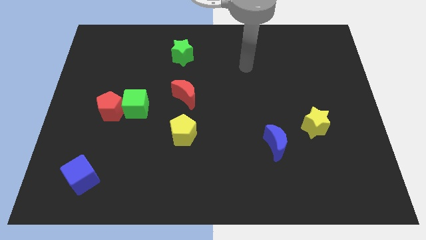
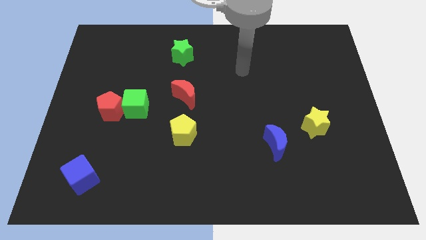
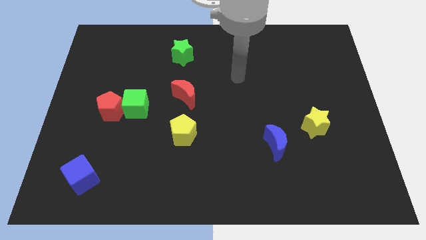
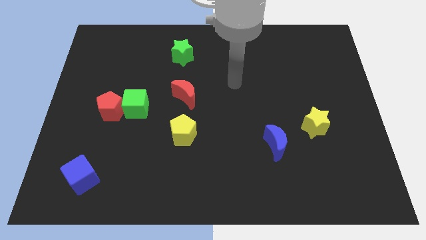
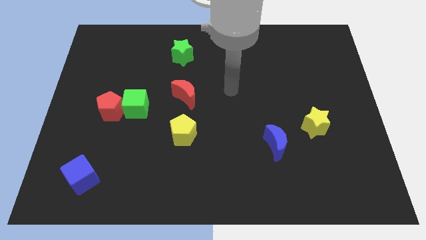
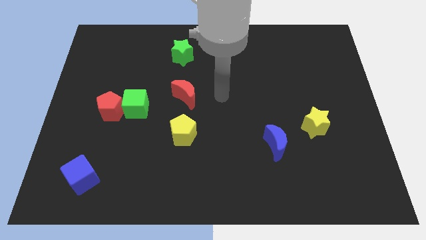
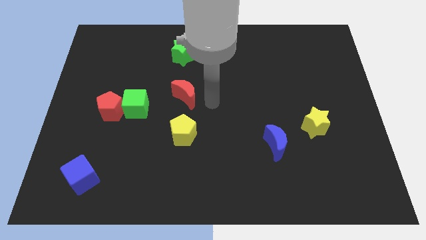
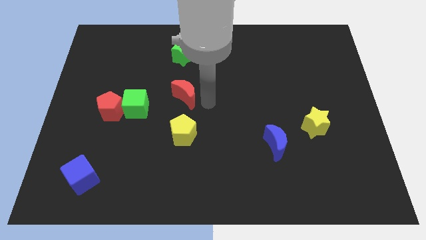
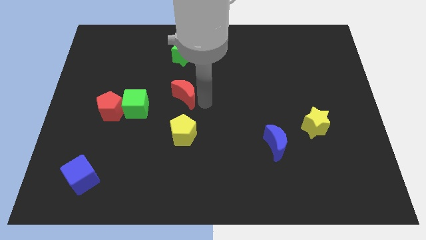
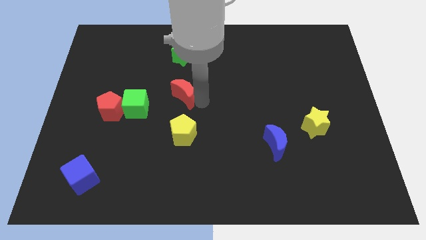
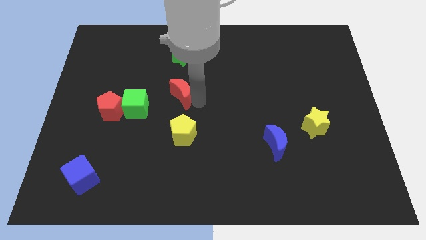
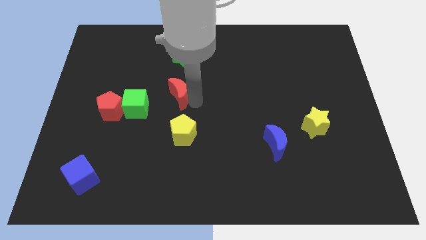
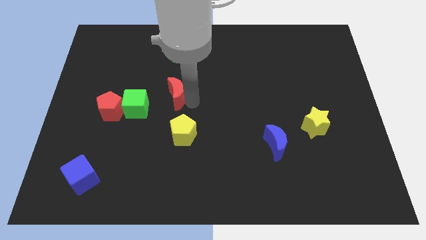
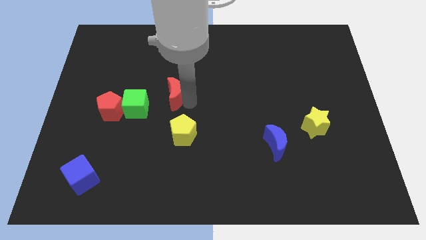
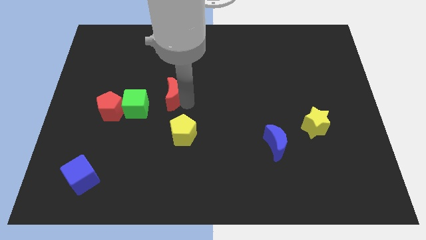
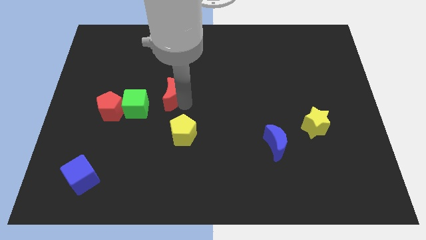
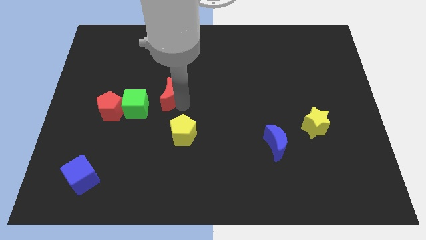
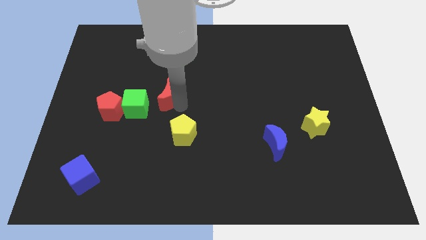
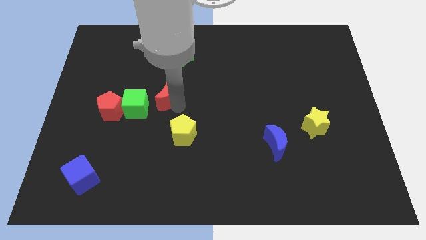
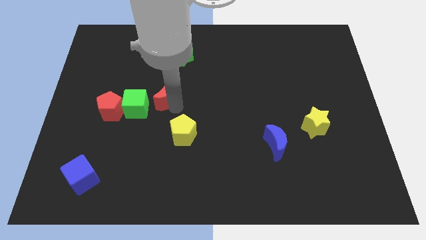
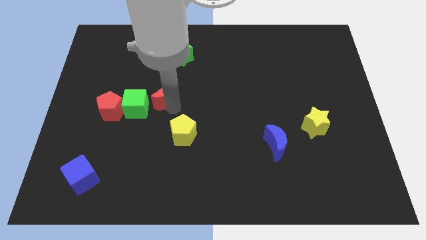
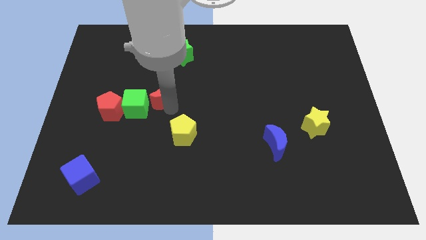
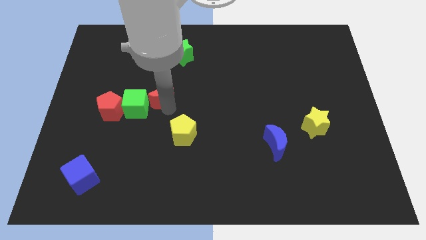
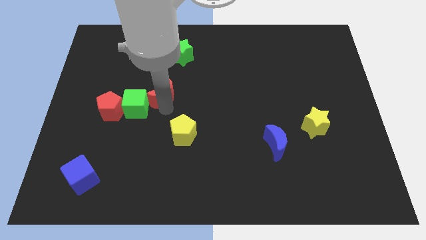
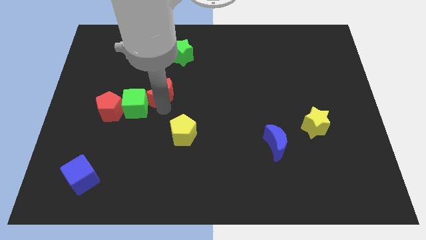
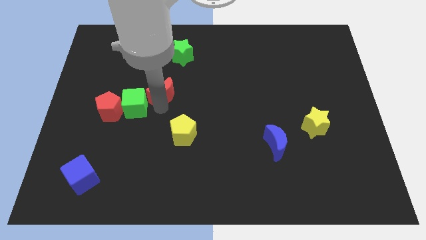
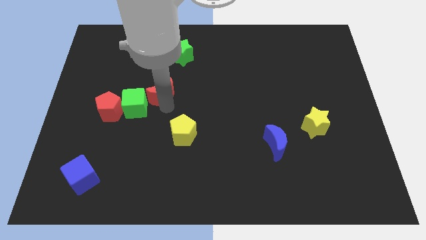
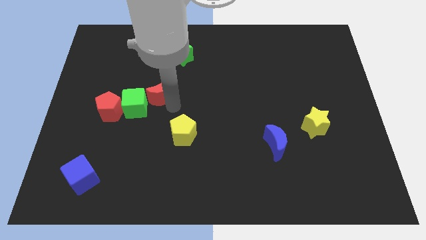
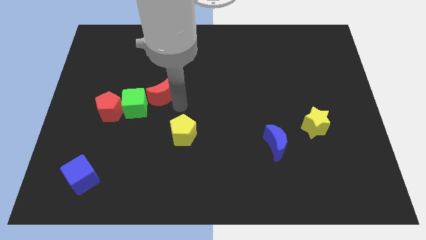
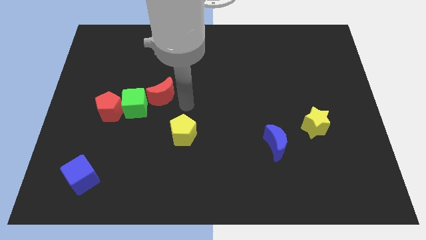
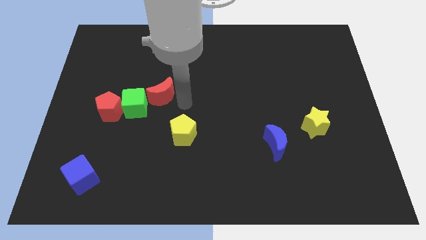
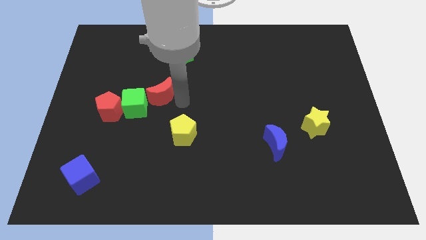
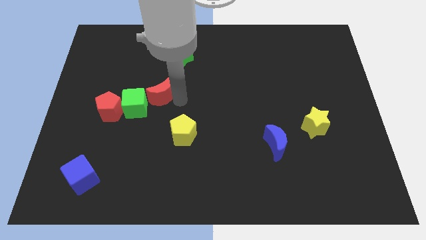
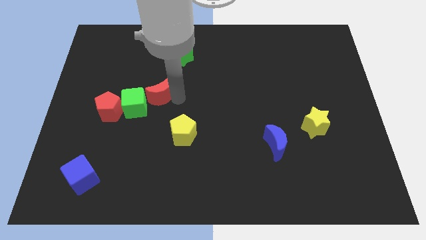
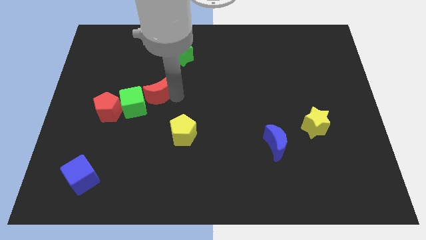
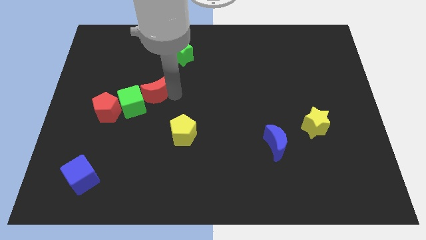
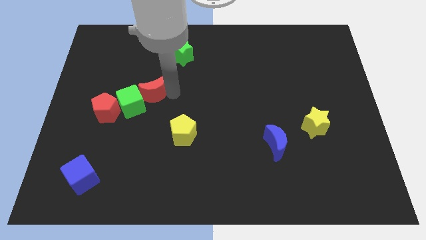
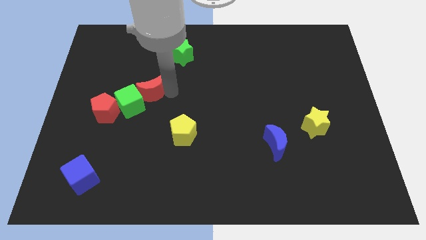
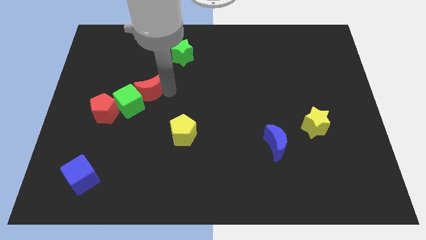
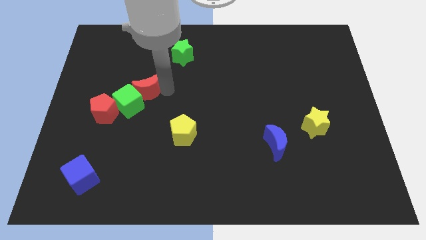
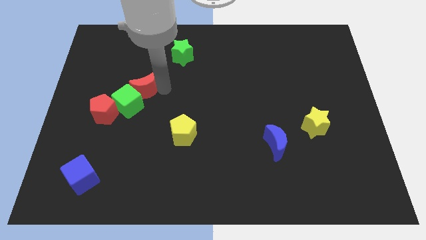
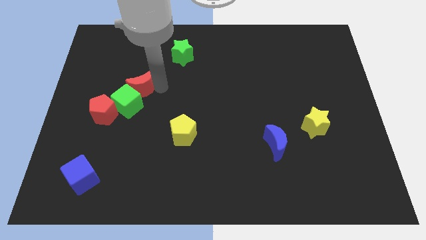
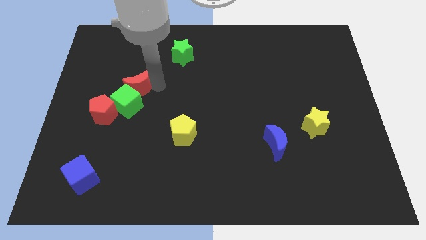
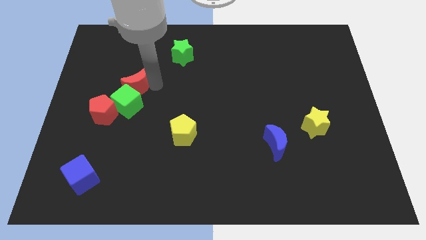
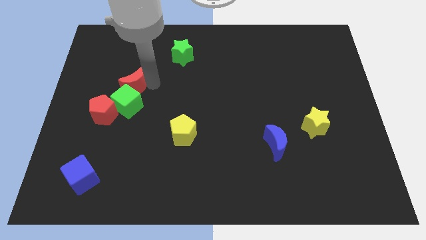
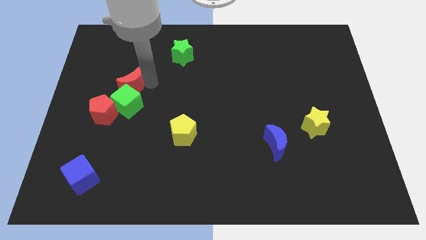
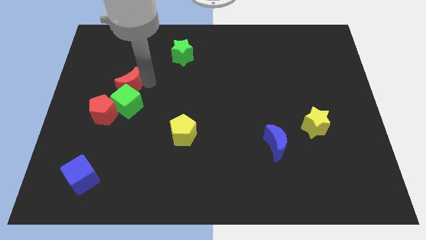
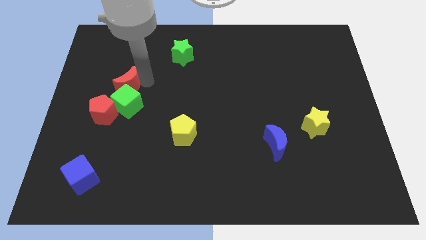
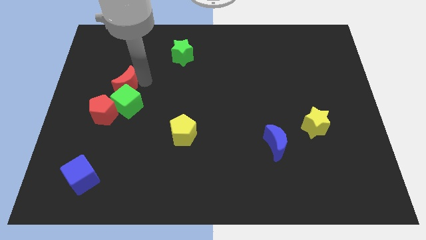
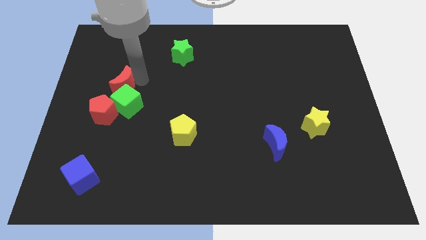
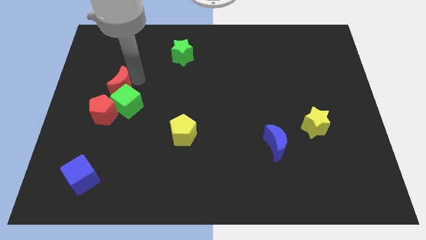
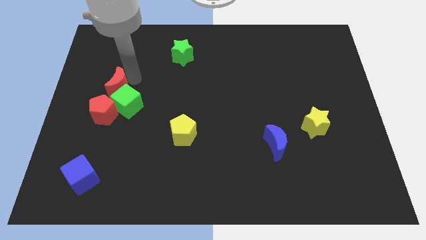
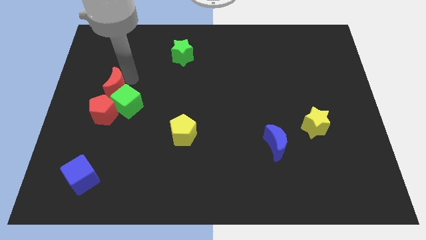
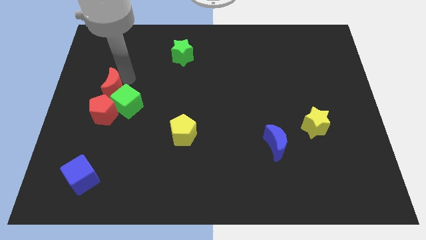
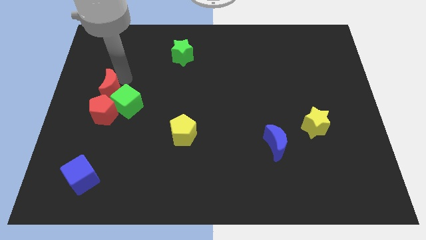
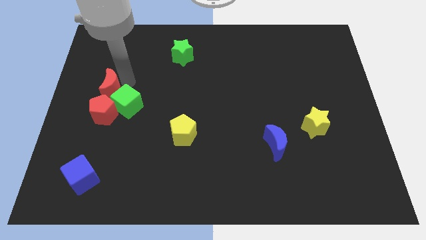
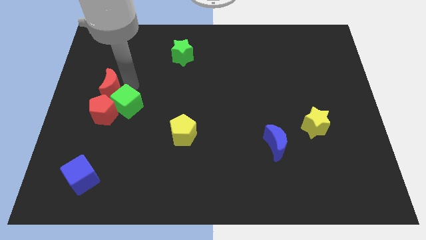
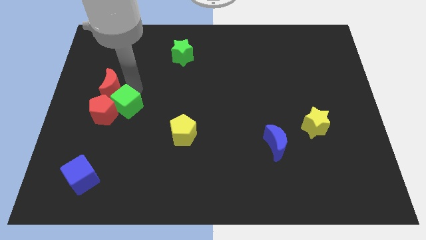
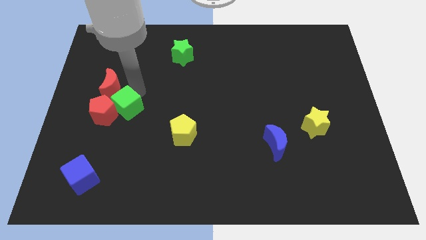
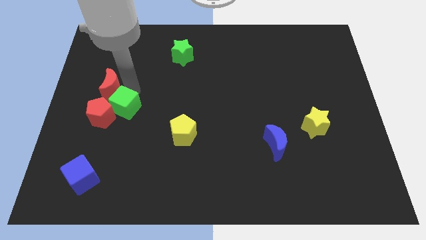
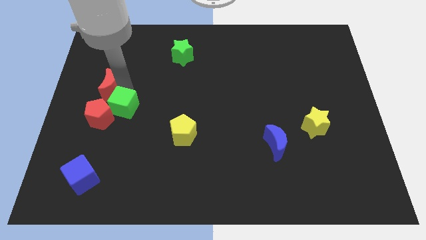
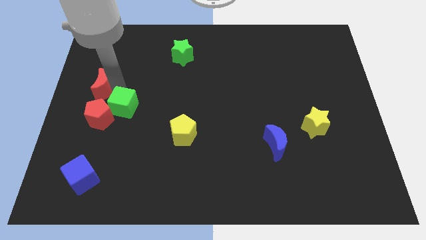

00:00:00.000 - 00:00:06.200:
push the red moon to the left side of the board
